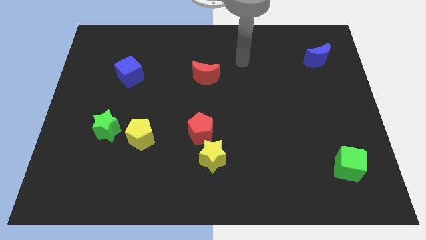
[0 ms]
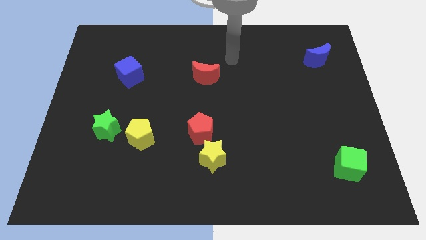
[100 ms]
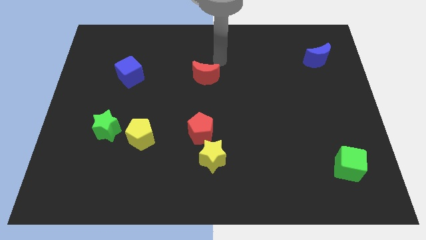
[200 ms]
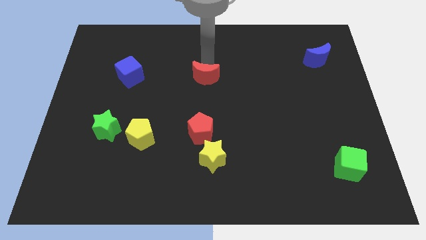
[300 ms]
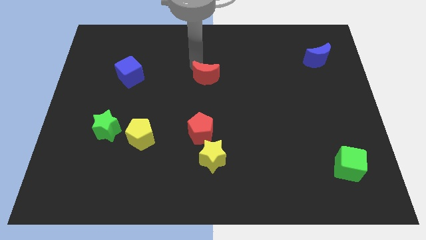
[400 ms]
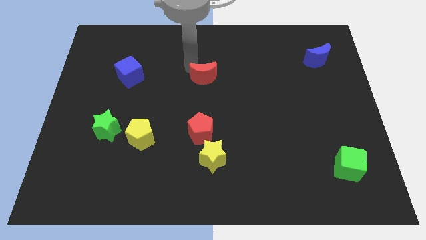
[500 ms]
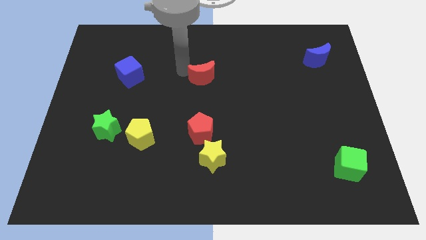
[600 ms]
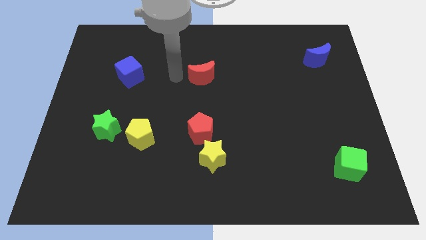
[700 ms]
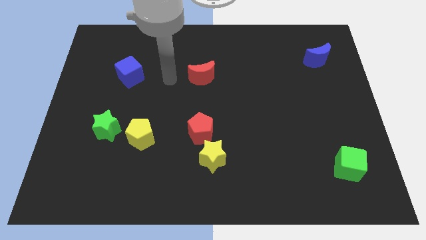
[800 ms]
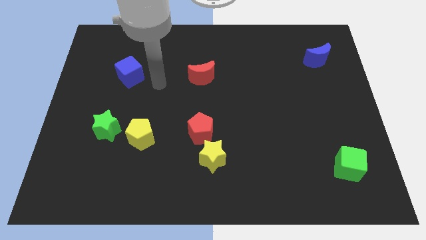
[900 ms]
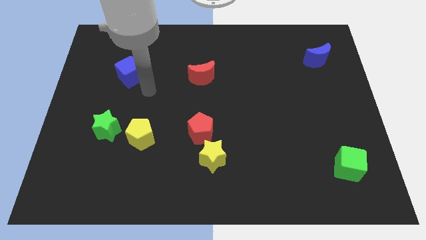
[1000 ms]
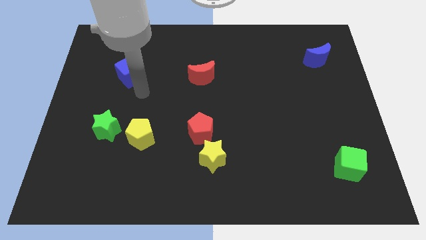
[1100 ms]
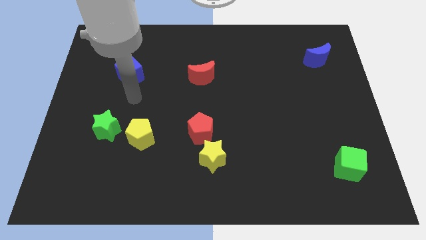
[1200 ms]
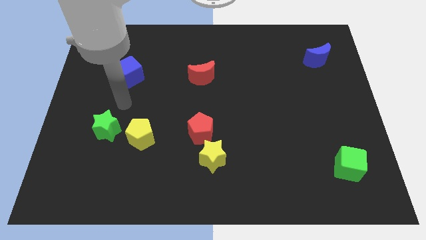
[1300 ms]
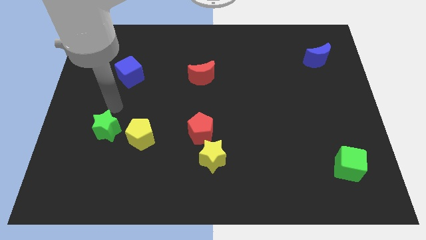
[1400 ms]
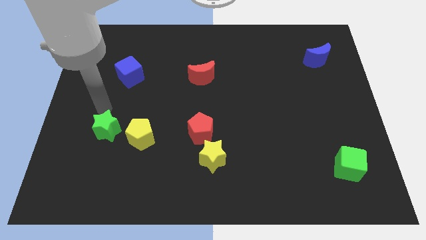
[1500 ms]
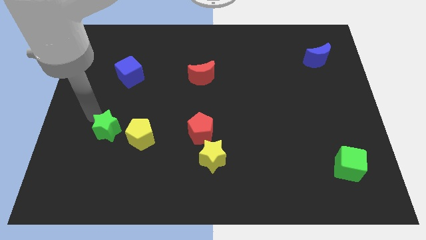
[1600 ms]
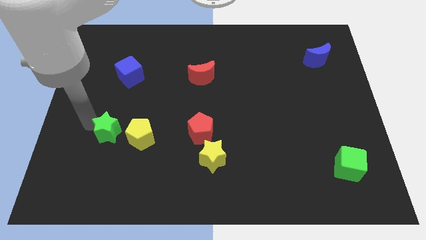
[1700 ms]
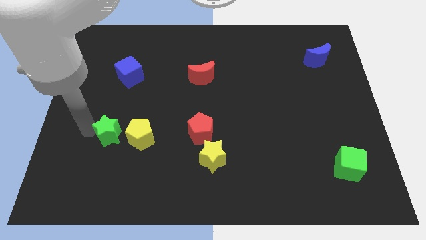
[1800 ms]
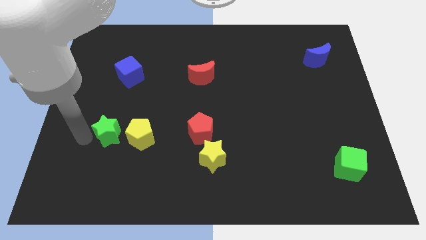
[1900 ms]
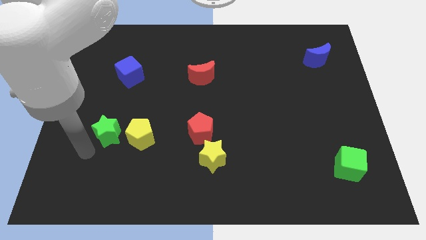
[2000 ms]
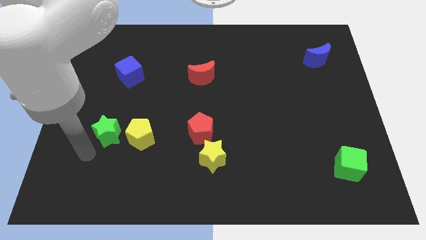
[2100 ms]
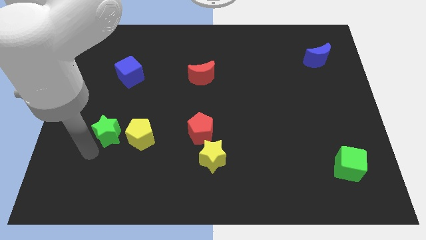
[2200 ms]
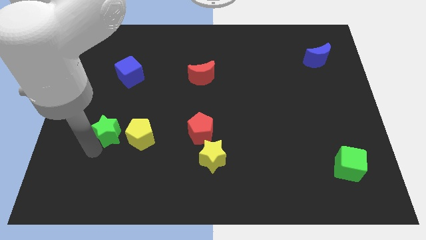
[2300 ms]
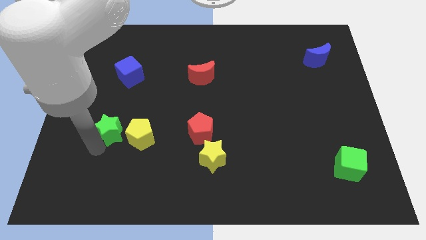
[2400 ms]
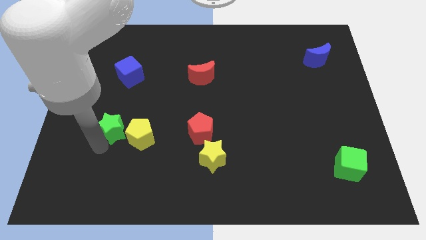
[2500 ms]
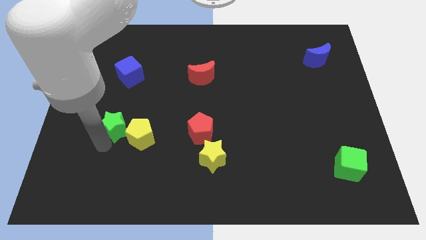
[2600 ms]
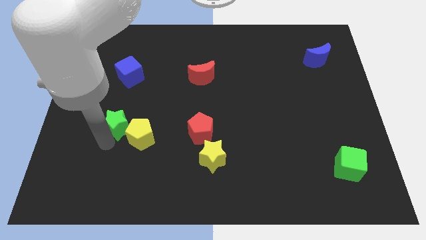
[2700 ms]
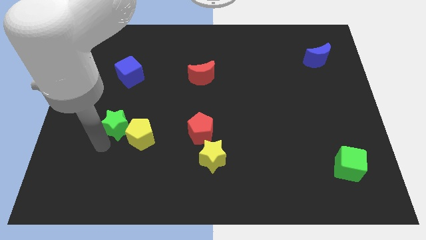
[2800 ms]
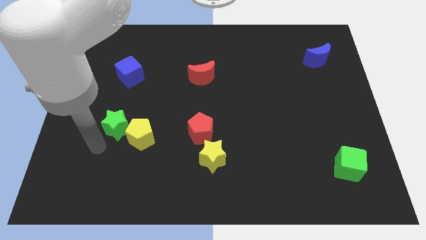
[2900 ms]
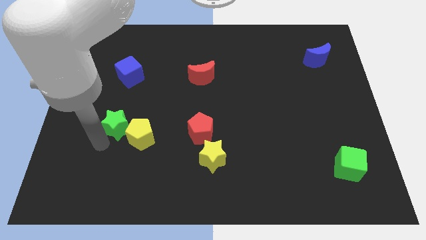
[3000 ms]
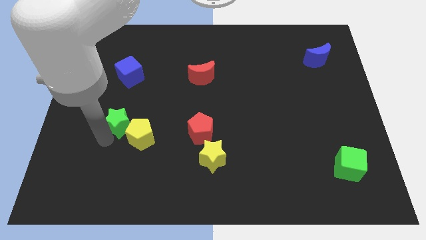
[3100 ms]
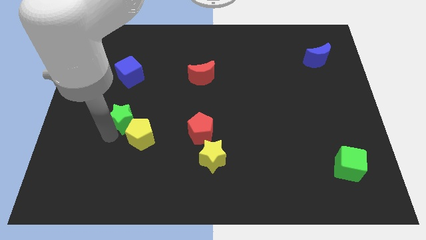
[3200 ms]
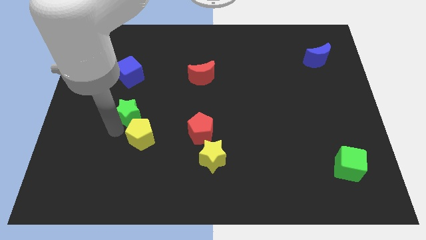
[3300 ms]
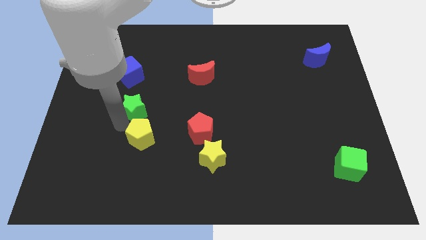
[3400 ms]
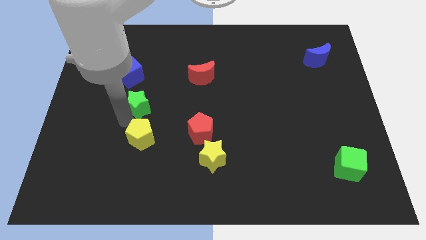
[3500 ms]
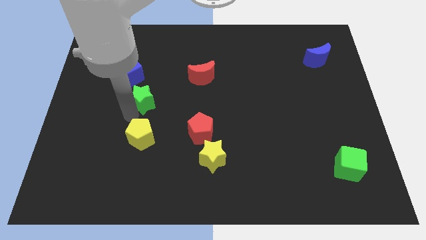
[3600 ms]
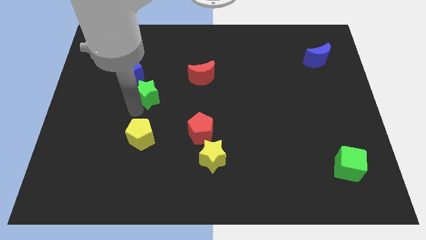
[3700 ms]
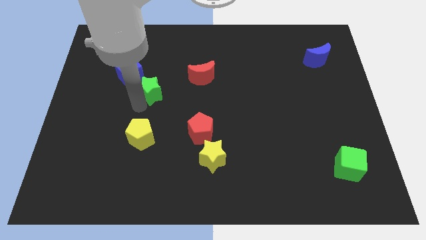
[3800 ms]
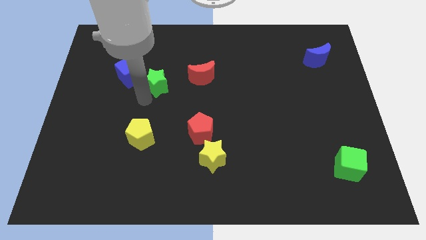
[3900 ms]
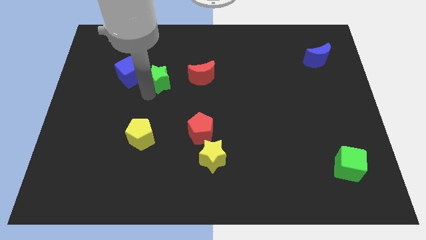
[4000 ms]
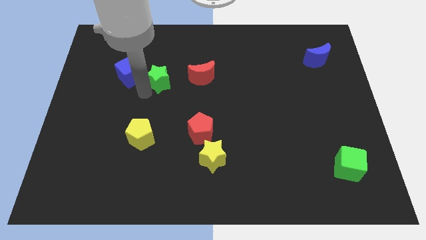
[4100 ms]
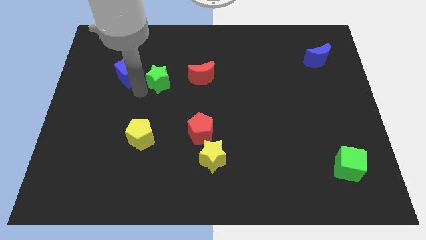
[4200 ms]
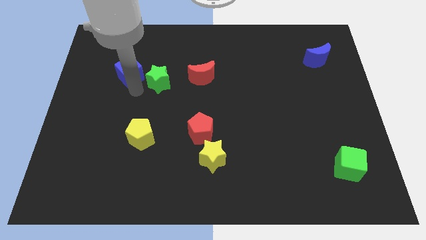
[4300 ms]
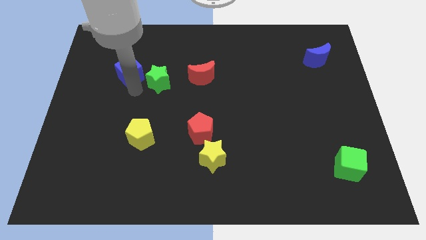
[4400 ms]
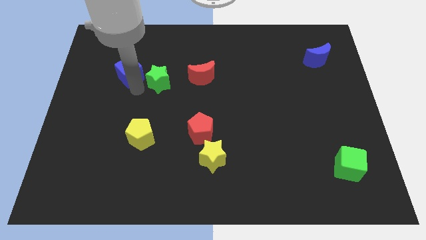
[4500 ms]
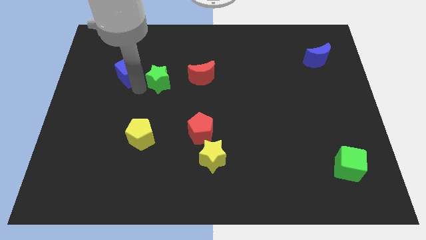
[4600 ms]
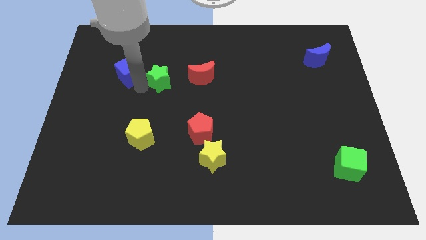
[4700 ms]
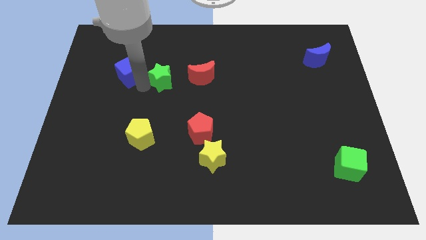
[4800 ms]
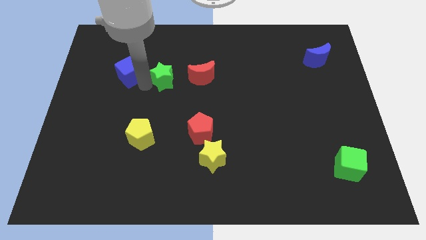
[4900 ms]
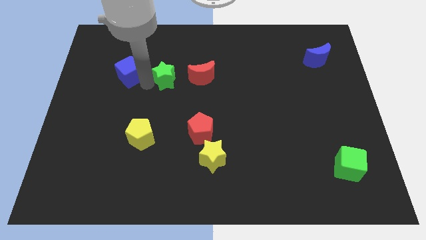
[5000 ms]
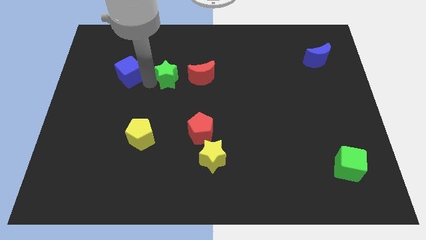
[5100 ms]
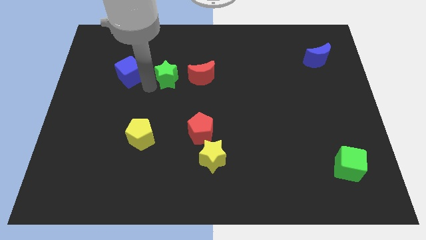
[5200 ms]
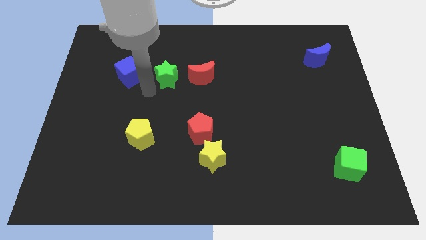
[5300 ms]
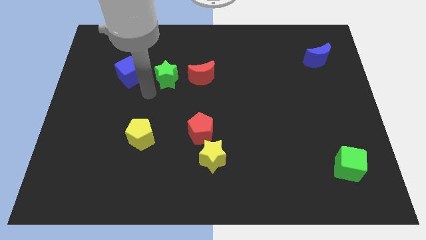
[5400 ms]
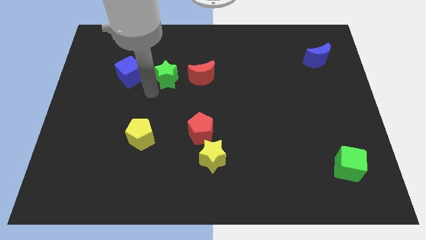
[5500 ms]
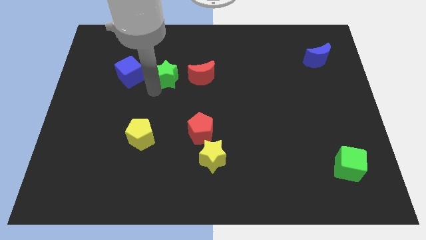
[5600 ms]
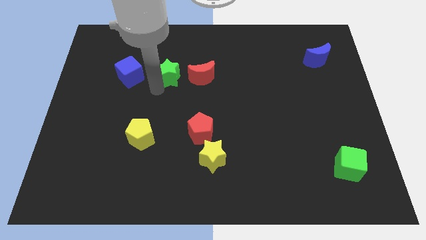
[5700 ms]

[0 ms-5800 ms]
push the green star up and to the right

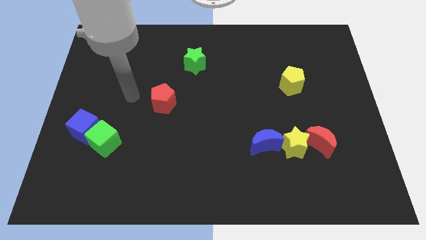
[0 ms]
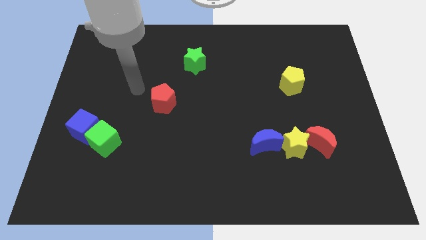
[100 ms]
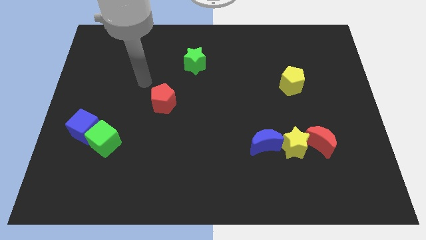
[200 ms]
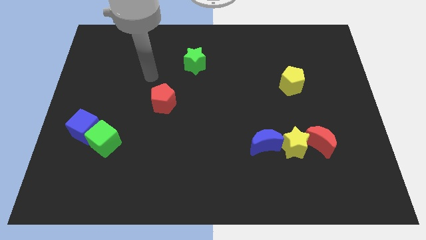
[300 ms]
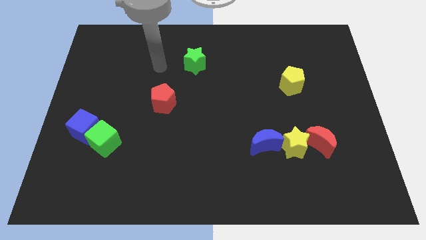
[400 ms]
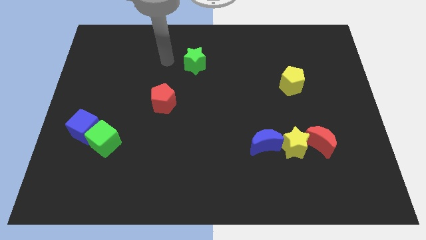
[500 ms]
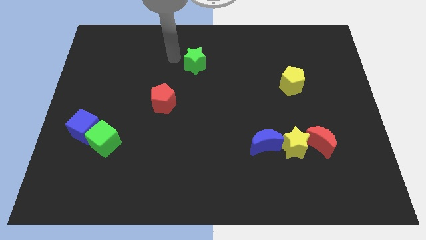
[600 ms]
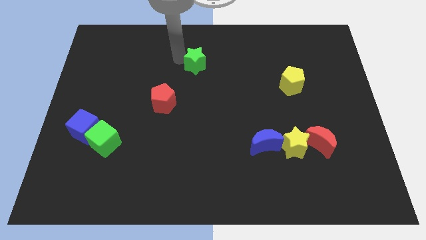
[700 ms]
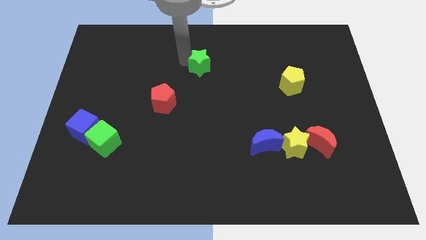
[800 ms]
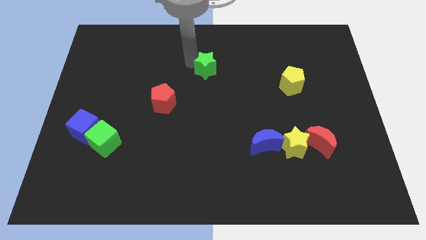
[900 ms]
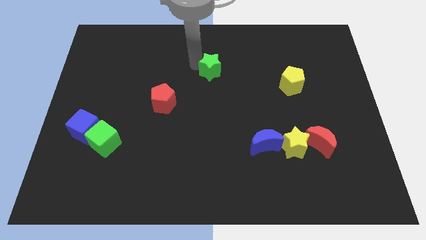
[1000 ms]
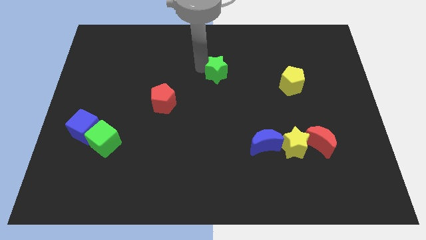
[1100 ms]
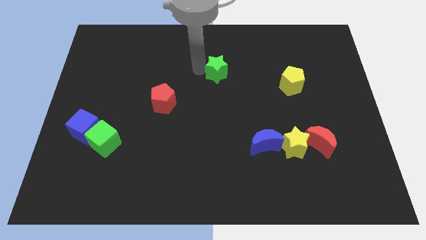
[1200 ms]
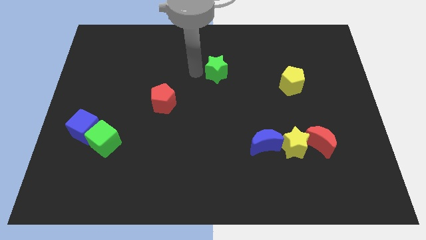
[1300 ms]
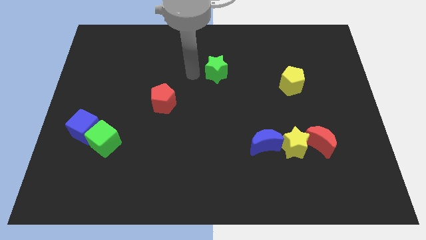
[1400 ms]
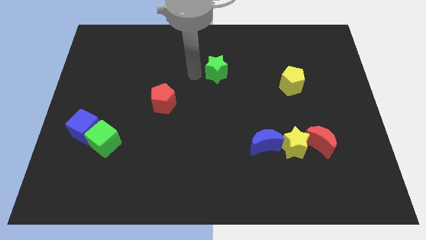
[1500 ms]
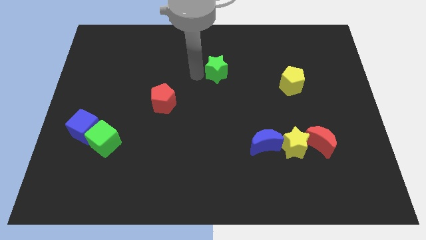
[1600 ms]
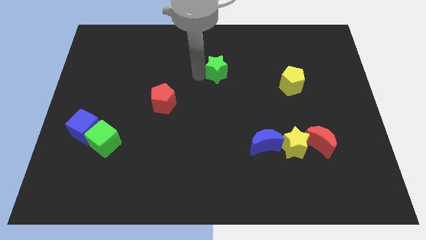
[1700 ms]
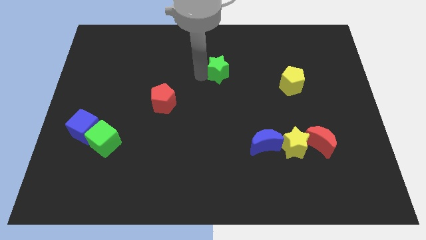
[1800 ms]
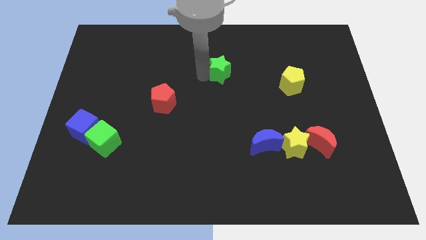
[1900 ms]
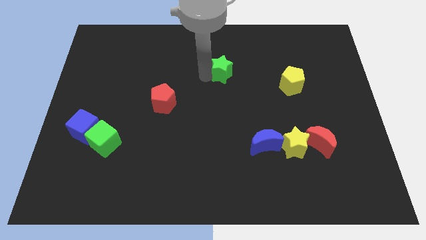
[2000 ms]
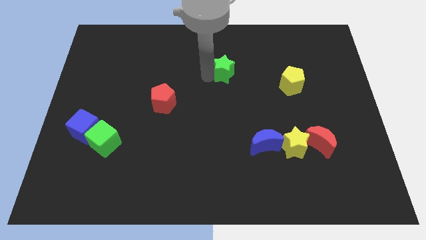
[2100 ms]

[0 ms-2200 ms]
slide the green star to the right slightly

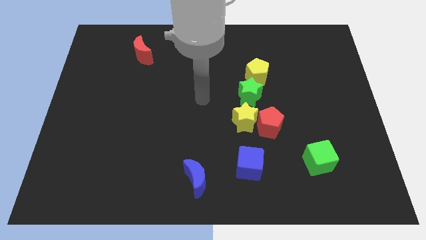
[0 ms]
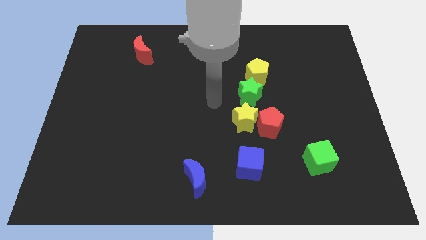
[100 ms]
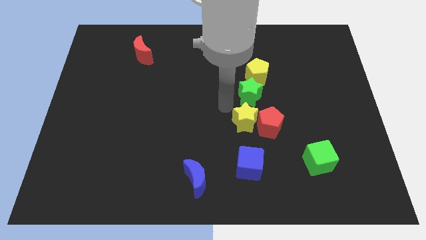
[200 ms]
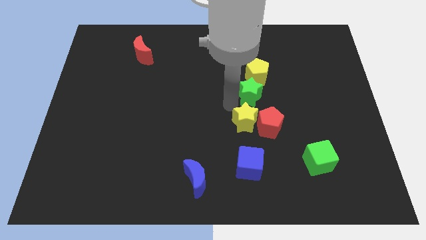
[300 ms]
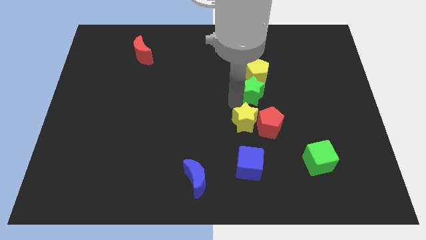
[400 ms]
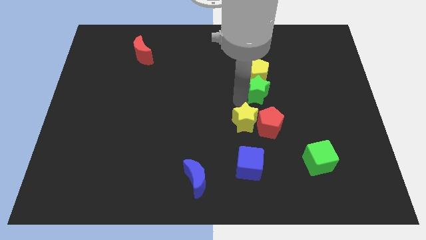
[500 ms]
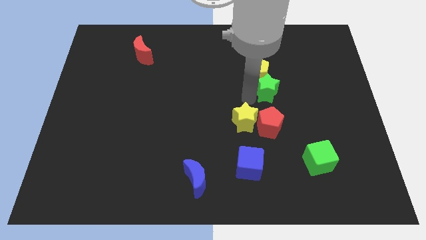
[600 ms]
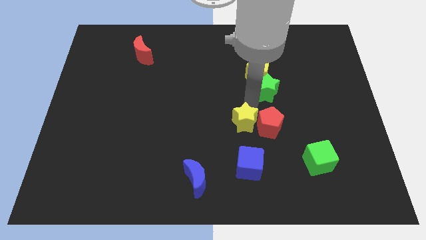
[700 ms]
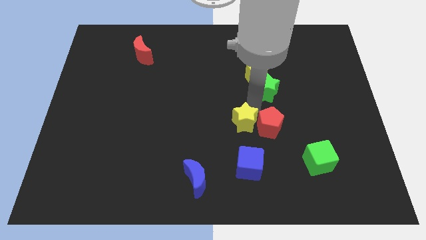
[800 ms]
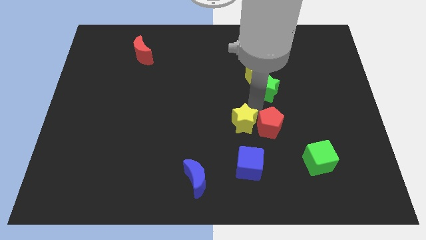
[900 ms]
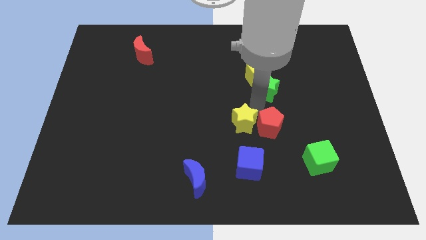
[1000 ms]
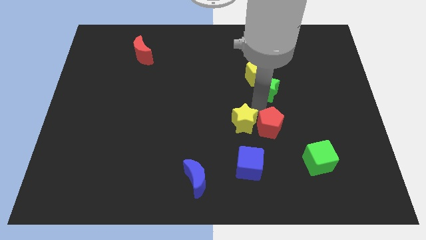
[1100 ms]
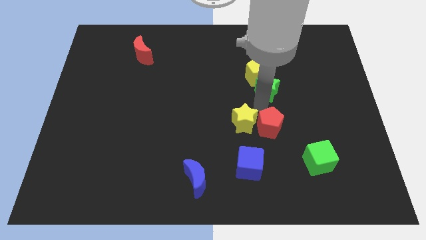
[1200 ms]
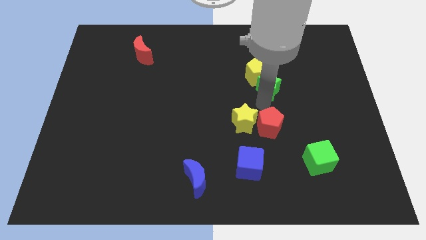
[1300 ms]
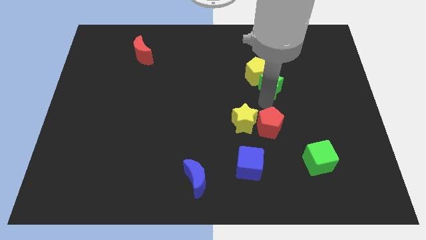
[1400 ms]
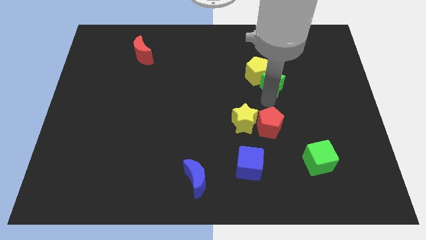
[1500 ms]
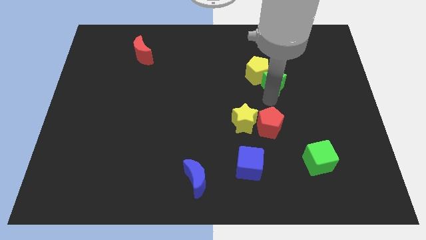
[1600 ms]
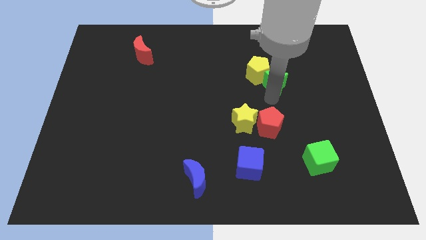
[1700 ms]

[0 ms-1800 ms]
slightly slide the green star up and then to the right
